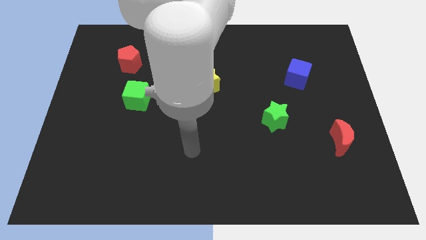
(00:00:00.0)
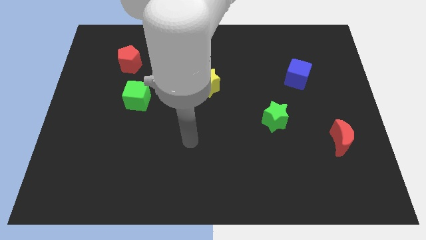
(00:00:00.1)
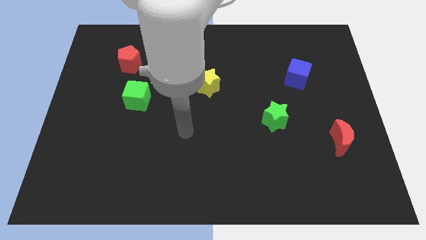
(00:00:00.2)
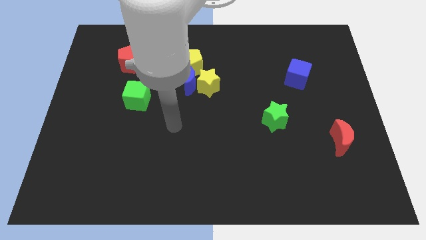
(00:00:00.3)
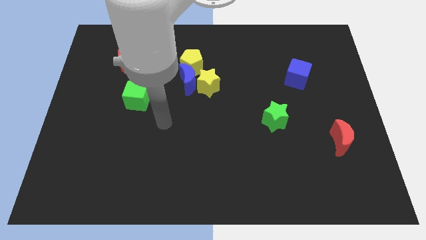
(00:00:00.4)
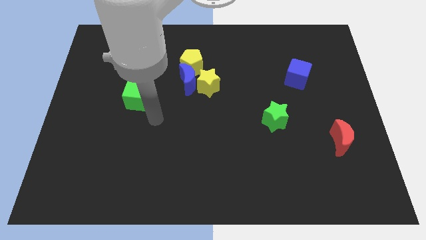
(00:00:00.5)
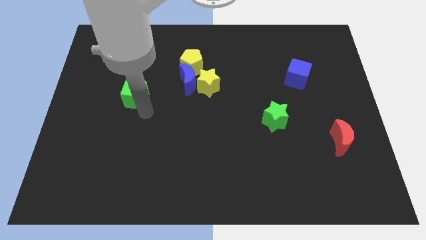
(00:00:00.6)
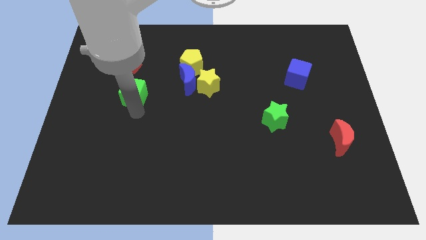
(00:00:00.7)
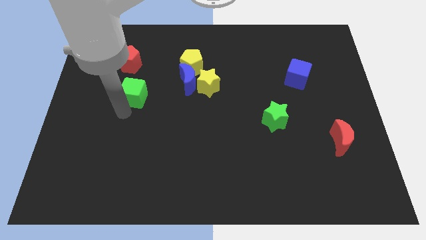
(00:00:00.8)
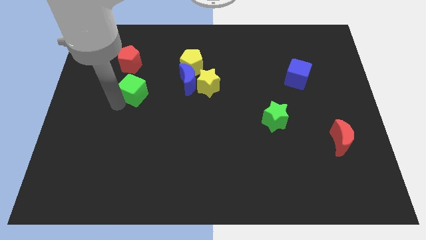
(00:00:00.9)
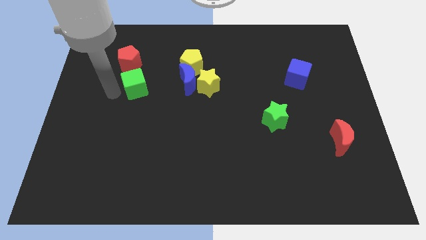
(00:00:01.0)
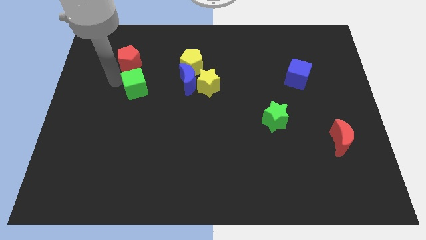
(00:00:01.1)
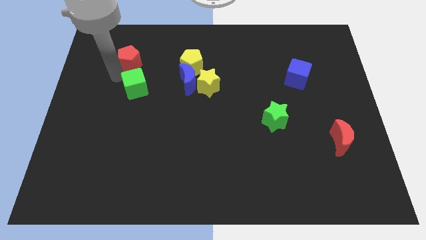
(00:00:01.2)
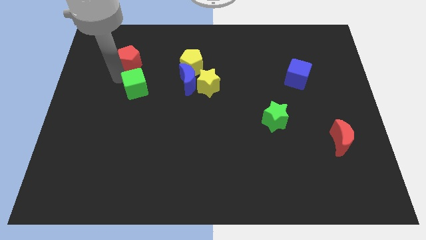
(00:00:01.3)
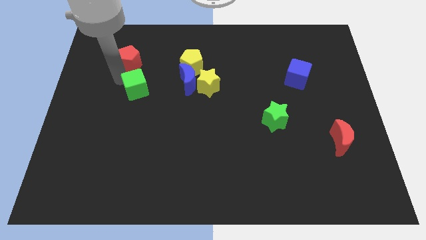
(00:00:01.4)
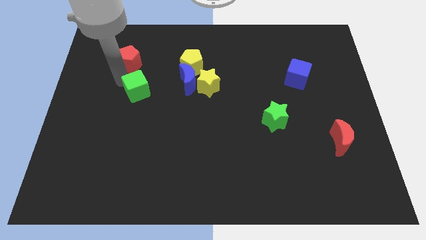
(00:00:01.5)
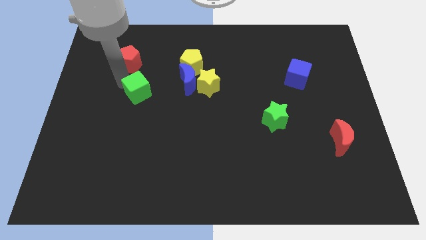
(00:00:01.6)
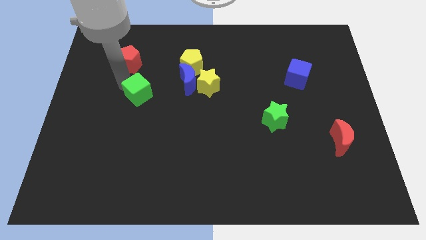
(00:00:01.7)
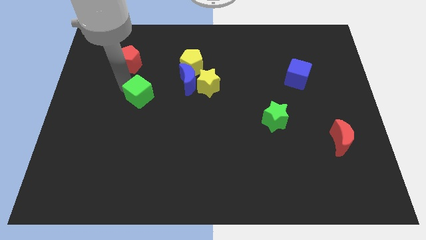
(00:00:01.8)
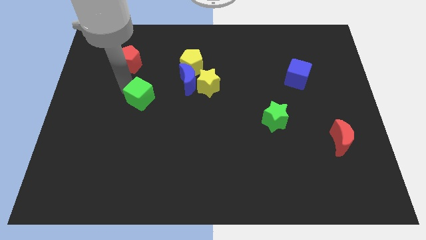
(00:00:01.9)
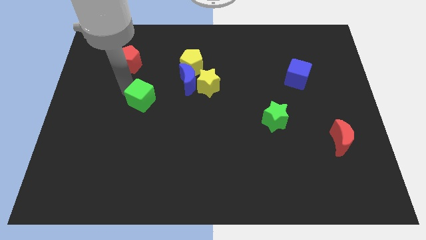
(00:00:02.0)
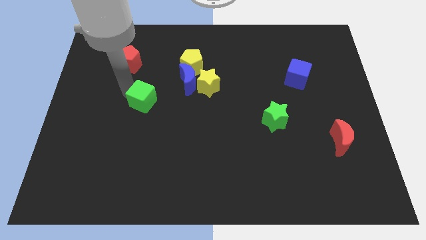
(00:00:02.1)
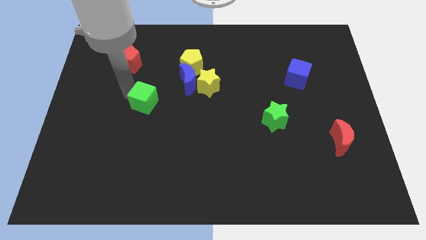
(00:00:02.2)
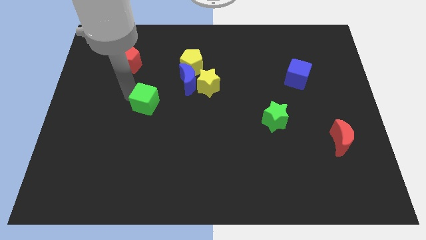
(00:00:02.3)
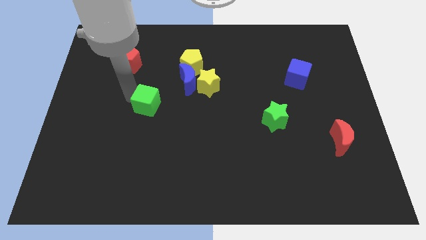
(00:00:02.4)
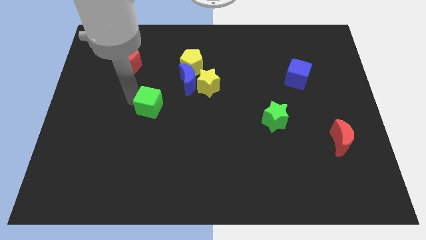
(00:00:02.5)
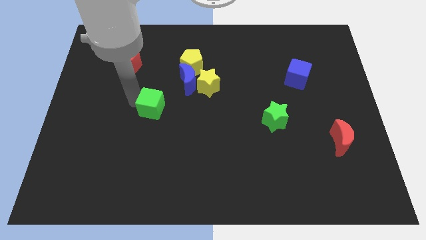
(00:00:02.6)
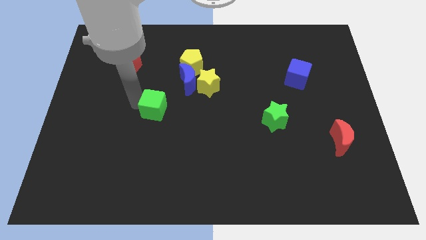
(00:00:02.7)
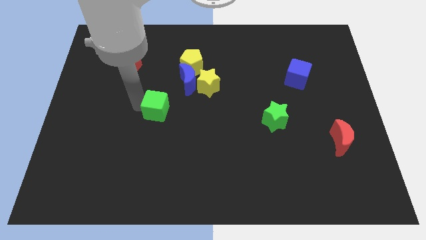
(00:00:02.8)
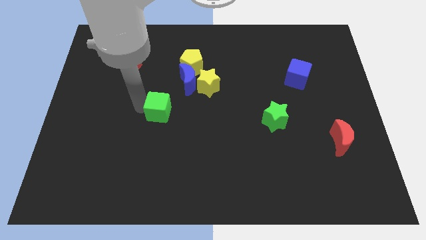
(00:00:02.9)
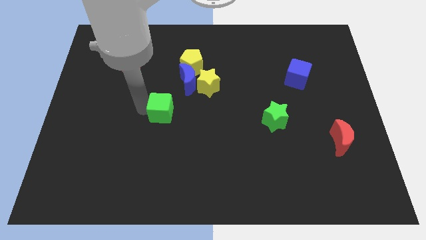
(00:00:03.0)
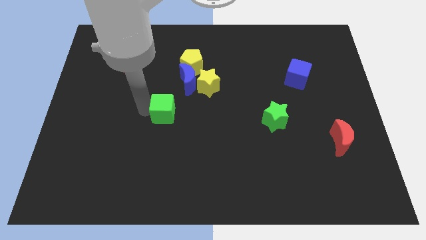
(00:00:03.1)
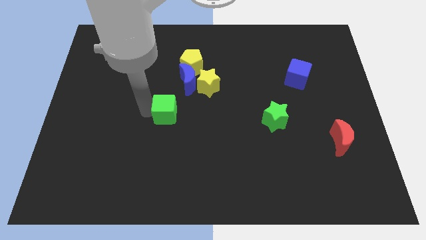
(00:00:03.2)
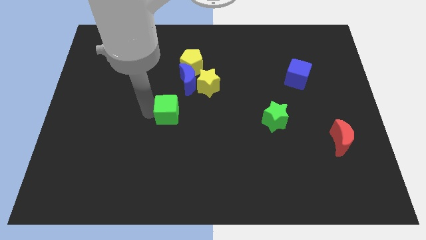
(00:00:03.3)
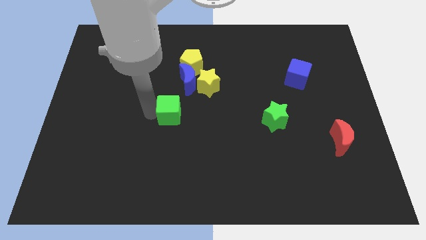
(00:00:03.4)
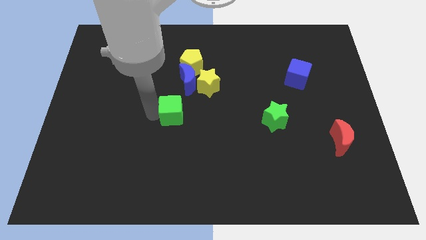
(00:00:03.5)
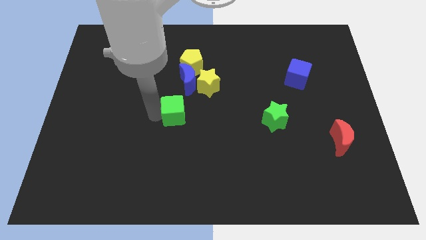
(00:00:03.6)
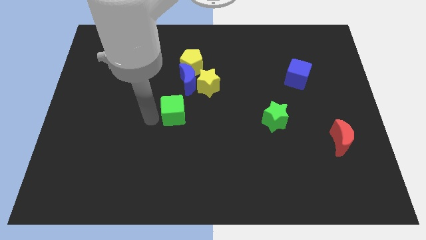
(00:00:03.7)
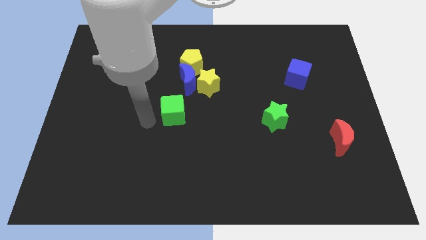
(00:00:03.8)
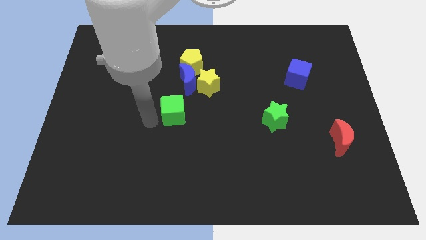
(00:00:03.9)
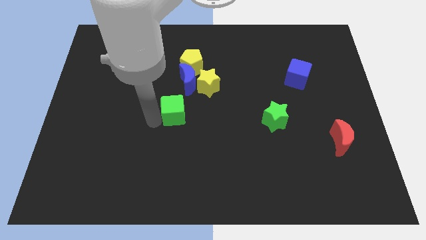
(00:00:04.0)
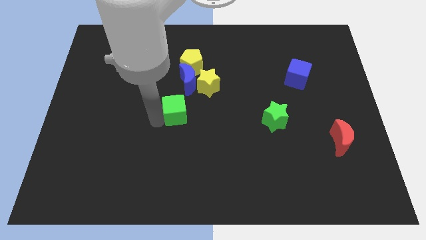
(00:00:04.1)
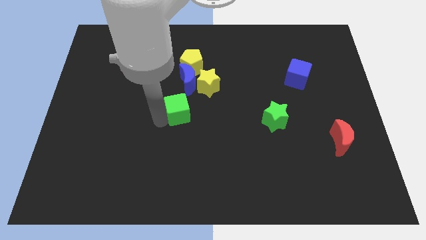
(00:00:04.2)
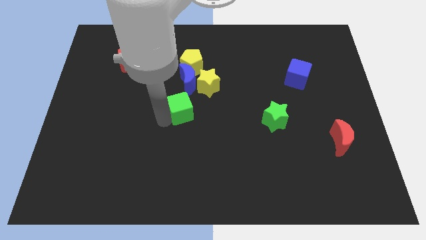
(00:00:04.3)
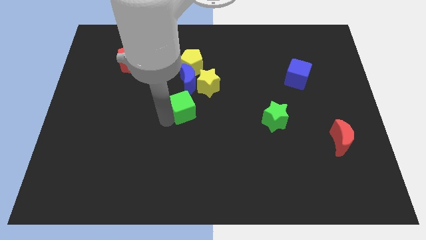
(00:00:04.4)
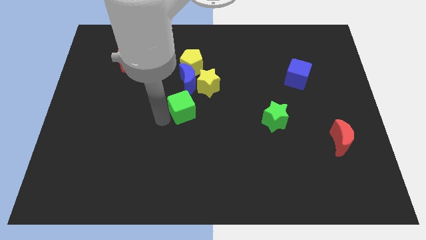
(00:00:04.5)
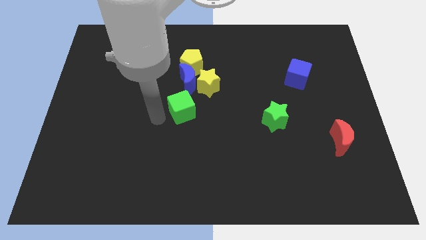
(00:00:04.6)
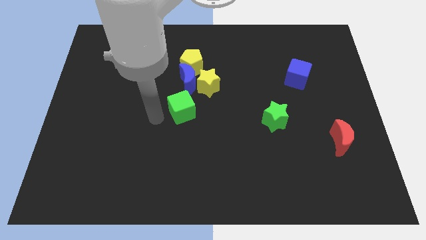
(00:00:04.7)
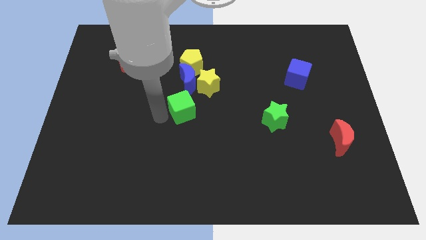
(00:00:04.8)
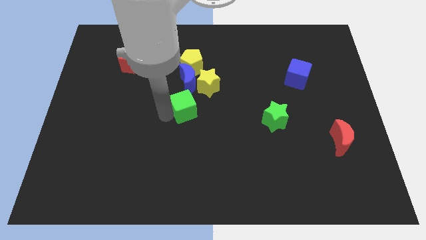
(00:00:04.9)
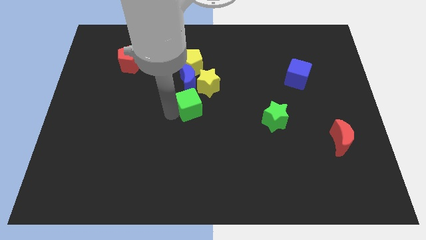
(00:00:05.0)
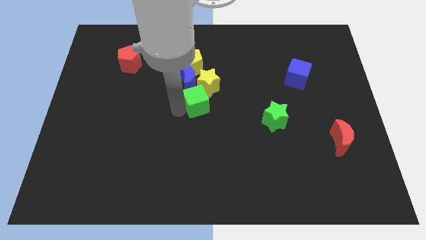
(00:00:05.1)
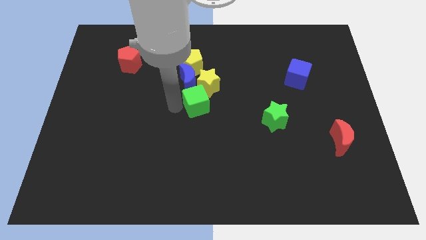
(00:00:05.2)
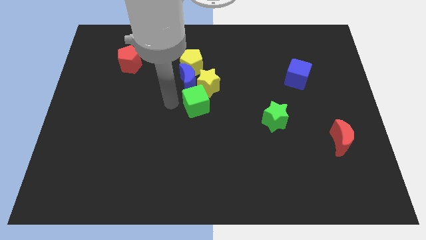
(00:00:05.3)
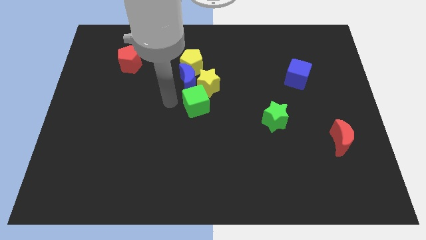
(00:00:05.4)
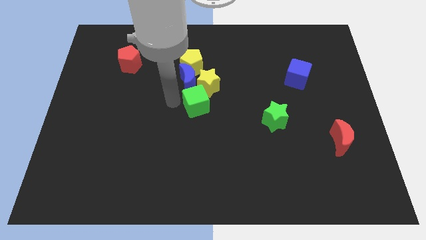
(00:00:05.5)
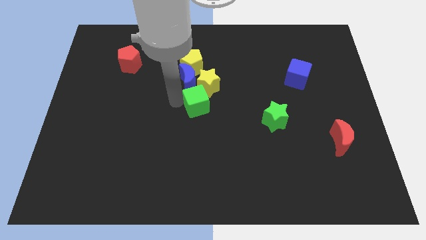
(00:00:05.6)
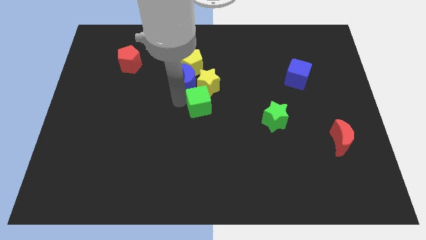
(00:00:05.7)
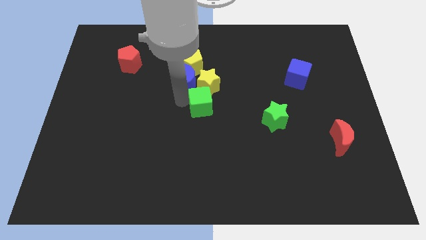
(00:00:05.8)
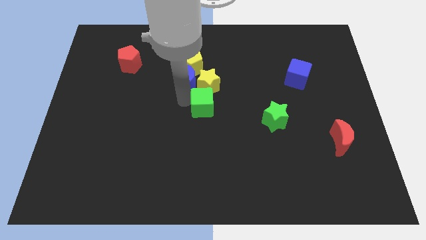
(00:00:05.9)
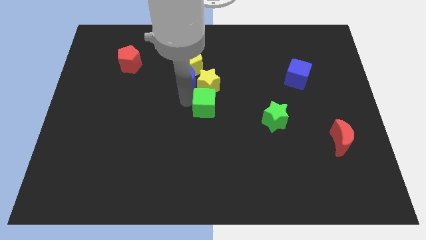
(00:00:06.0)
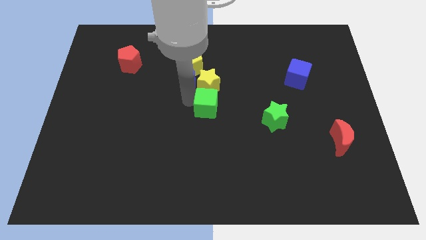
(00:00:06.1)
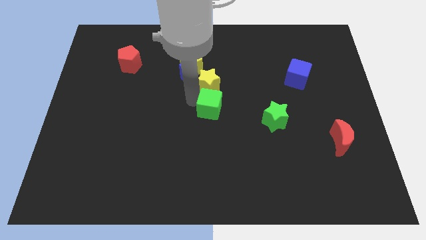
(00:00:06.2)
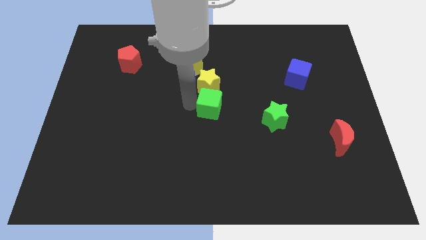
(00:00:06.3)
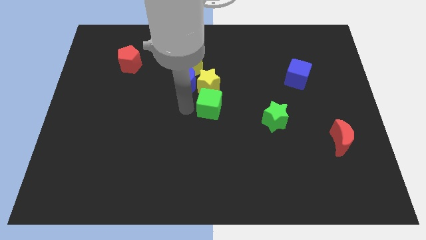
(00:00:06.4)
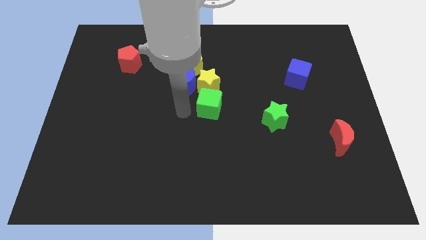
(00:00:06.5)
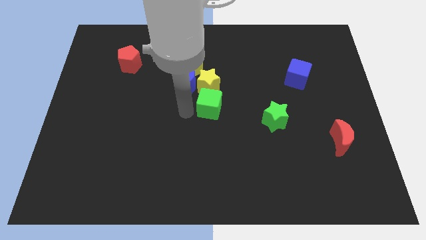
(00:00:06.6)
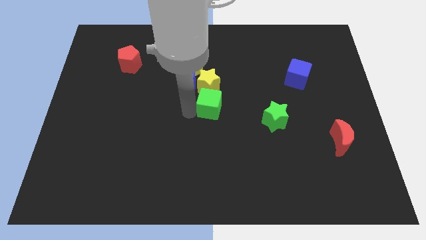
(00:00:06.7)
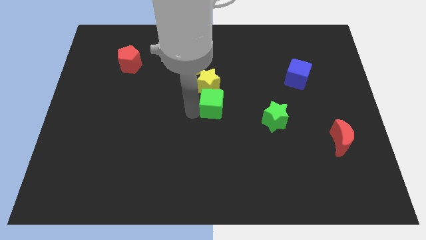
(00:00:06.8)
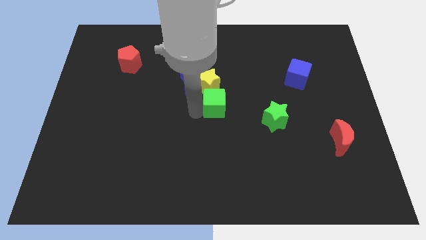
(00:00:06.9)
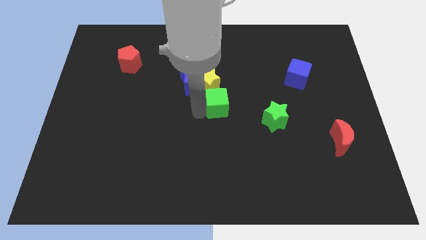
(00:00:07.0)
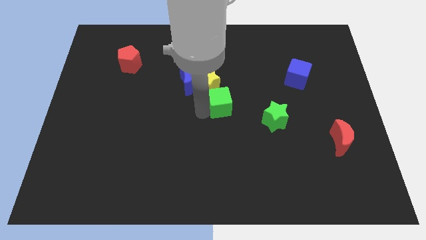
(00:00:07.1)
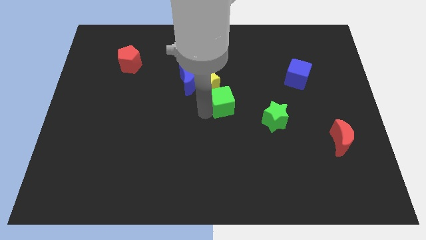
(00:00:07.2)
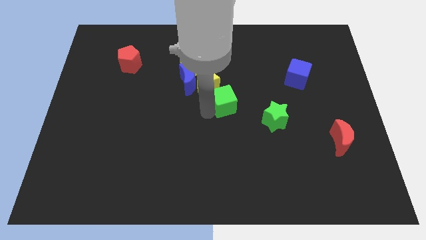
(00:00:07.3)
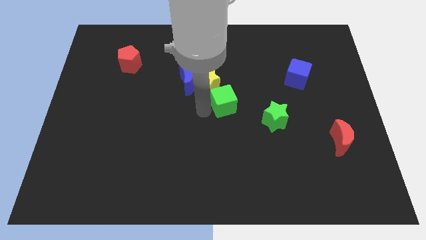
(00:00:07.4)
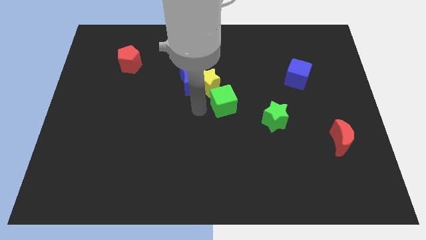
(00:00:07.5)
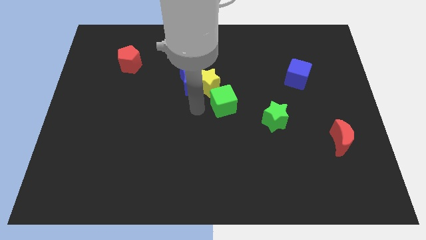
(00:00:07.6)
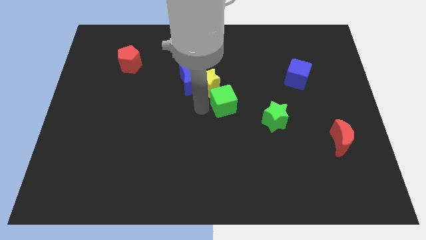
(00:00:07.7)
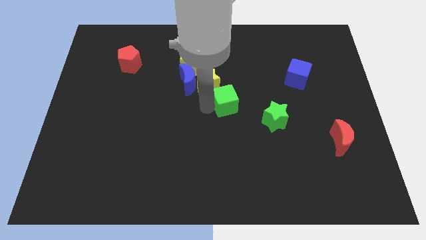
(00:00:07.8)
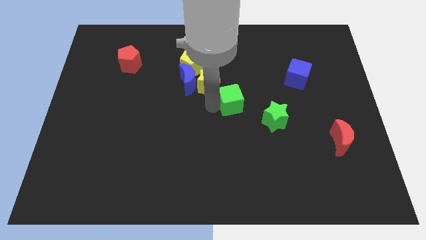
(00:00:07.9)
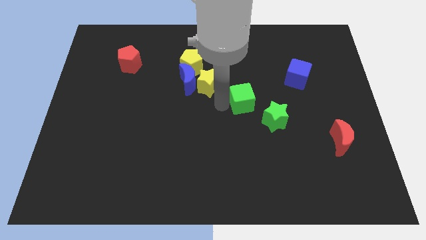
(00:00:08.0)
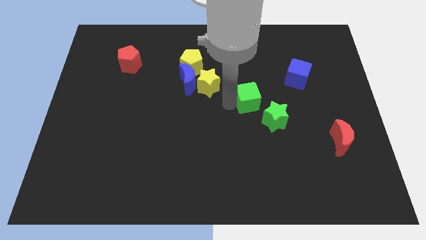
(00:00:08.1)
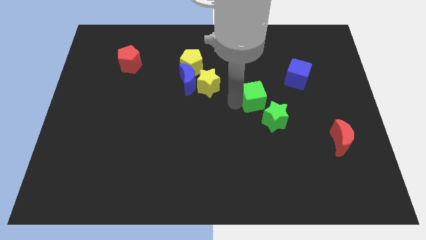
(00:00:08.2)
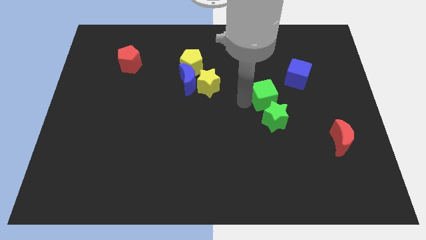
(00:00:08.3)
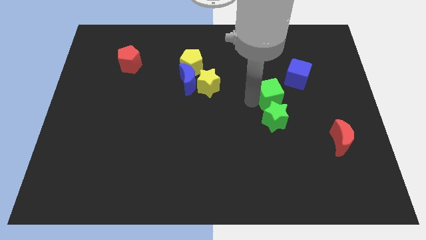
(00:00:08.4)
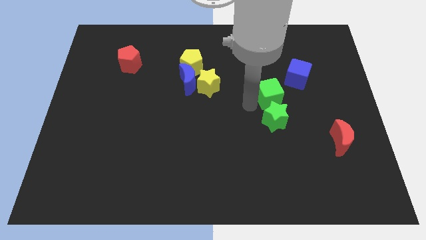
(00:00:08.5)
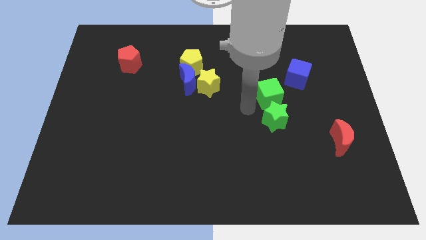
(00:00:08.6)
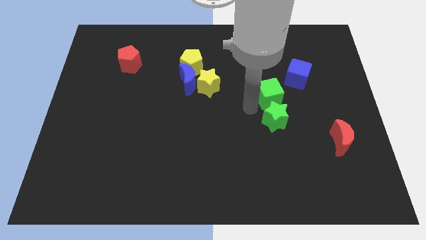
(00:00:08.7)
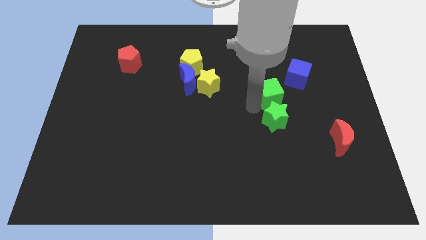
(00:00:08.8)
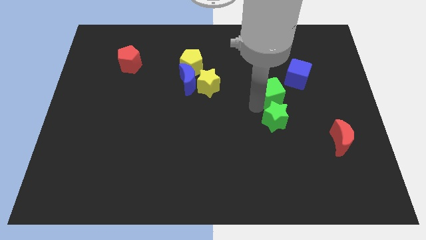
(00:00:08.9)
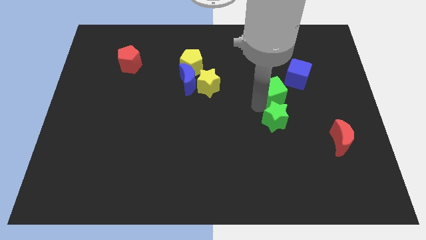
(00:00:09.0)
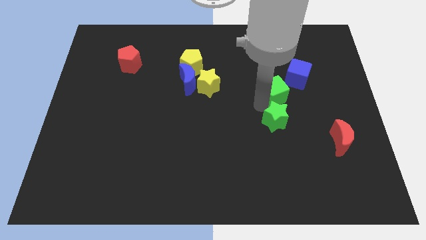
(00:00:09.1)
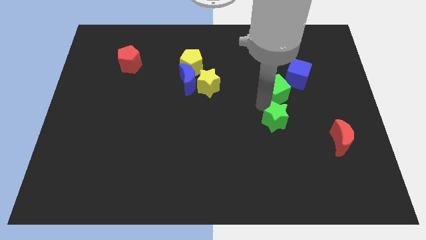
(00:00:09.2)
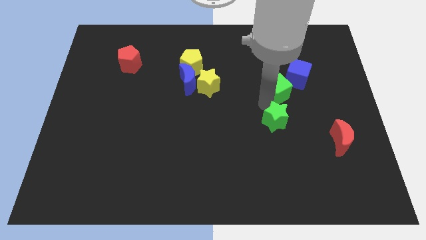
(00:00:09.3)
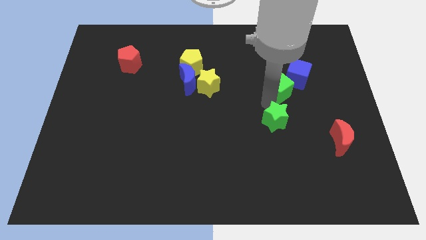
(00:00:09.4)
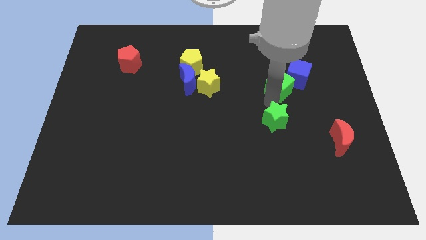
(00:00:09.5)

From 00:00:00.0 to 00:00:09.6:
slide the green cube towards the blue cube
